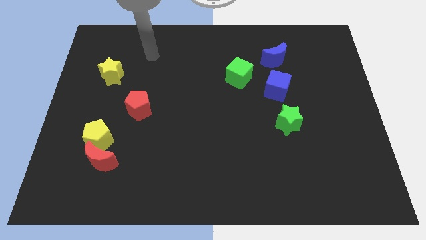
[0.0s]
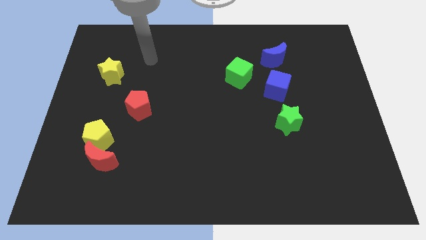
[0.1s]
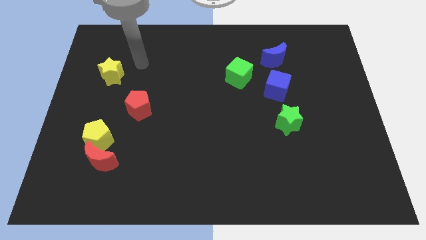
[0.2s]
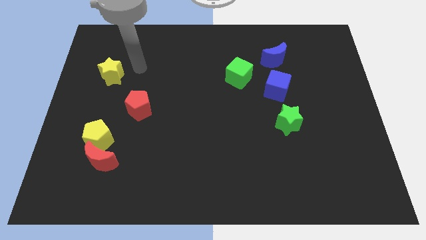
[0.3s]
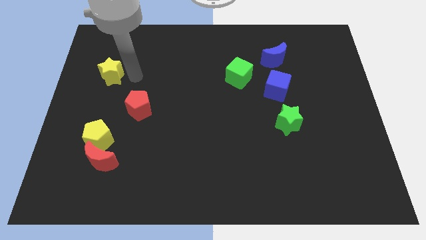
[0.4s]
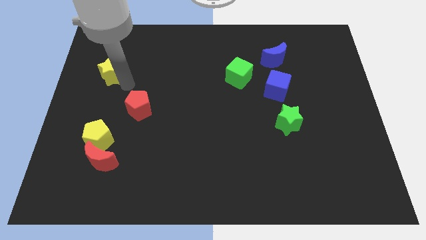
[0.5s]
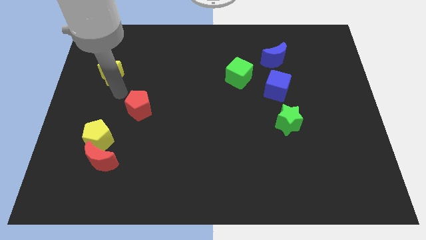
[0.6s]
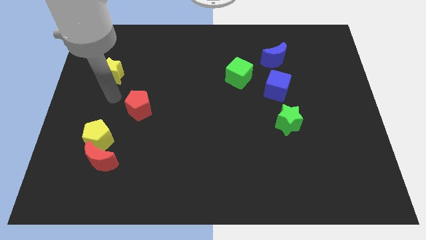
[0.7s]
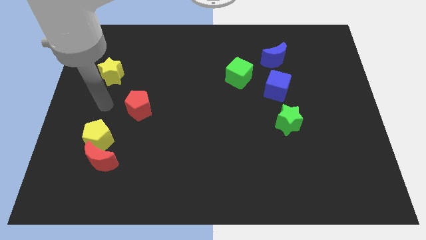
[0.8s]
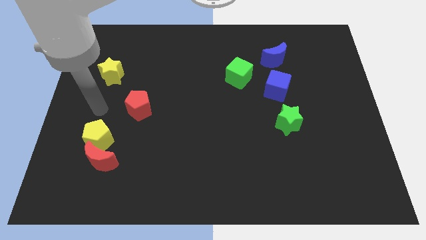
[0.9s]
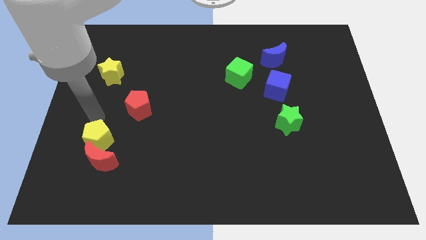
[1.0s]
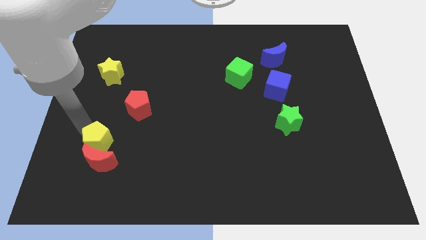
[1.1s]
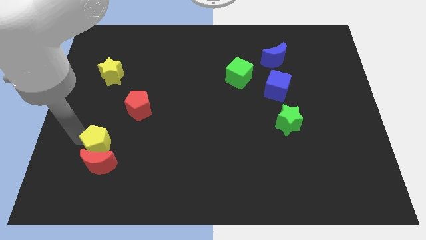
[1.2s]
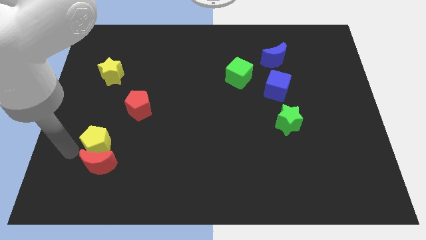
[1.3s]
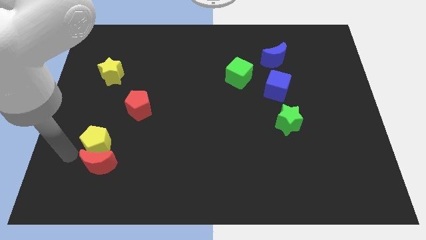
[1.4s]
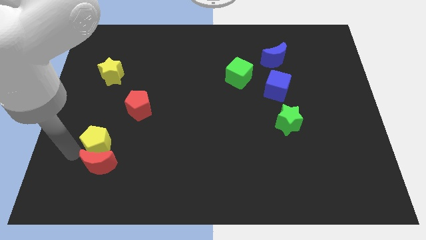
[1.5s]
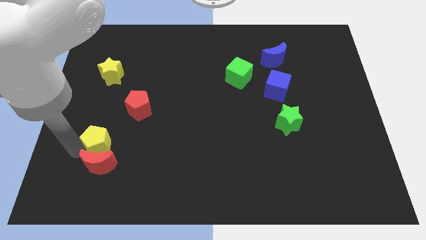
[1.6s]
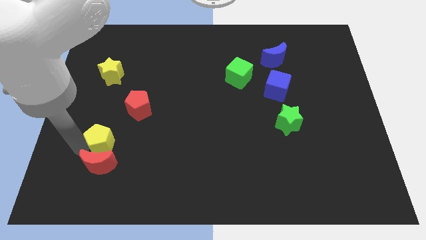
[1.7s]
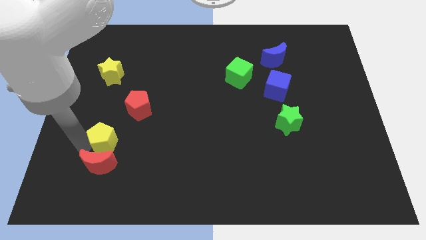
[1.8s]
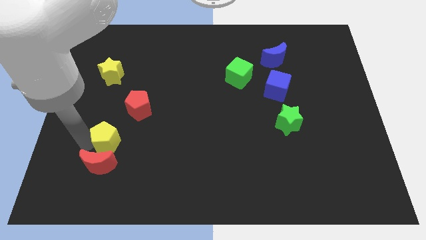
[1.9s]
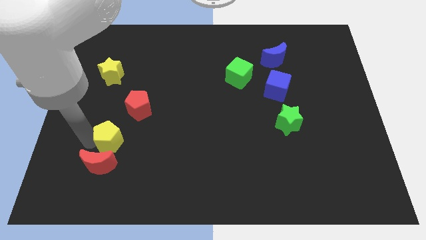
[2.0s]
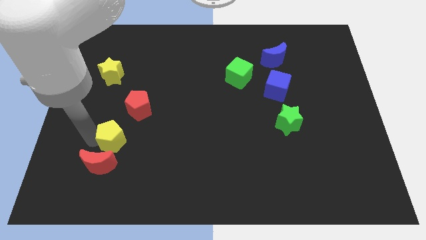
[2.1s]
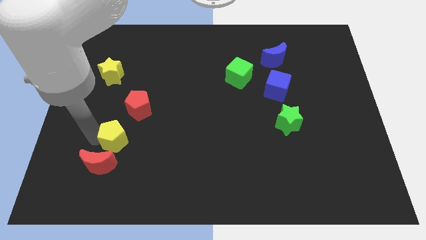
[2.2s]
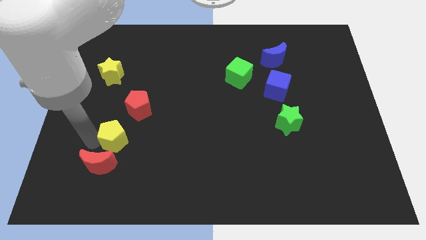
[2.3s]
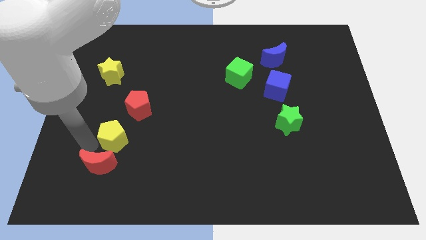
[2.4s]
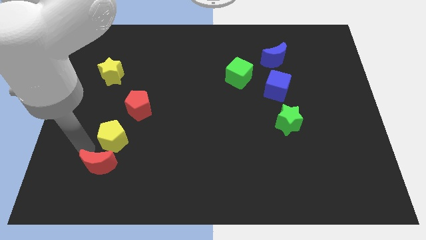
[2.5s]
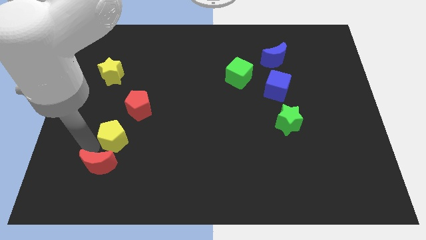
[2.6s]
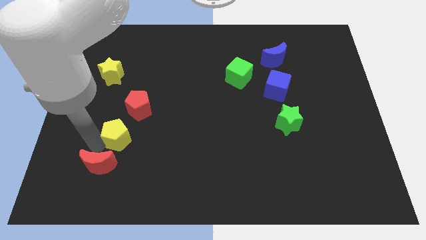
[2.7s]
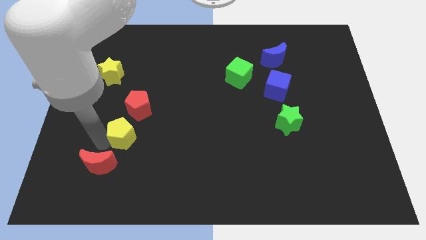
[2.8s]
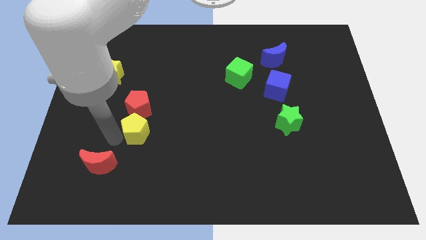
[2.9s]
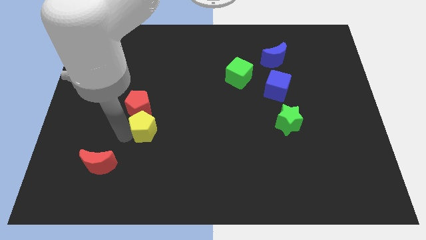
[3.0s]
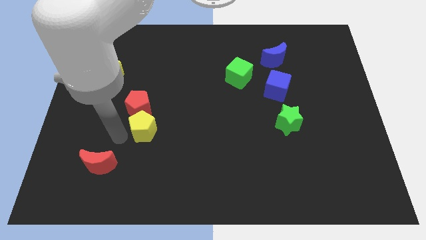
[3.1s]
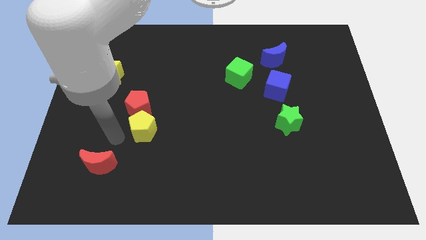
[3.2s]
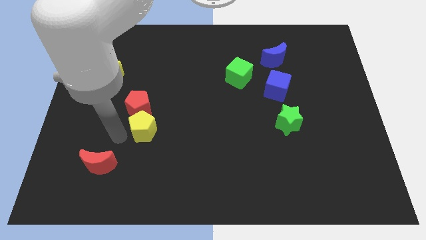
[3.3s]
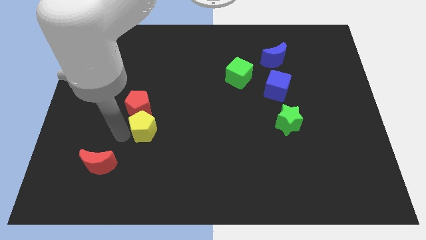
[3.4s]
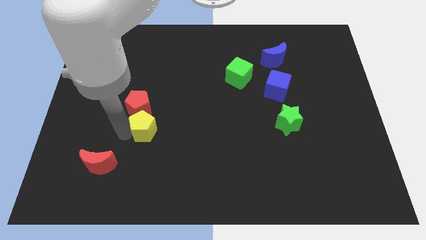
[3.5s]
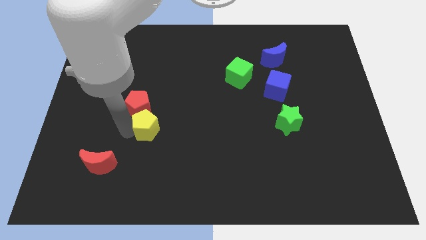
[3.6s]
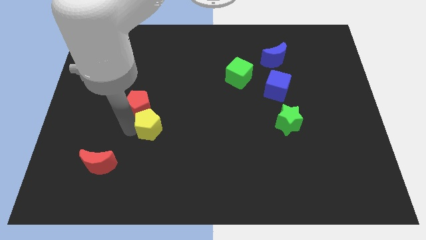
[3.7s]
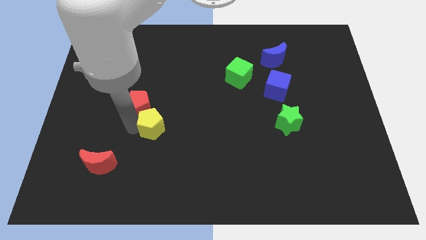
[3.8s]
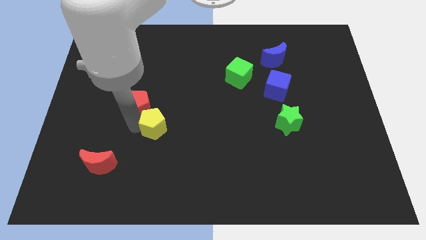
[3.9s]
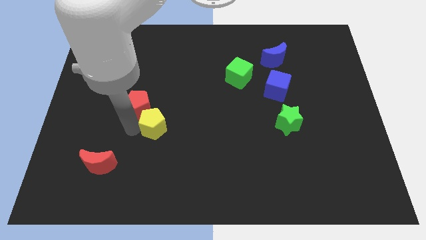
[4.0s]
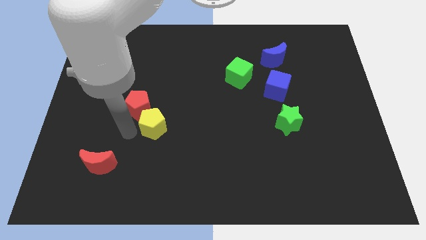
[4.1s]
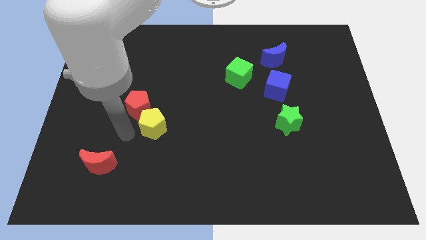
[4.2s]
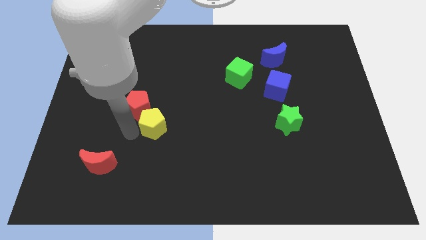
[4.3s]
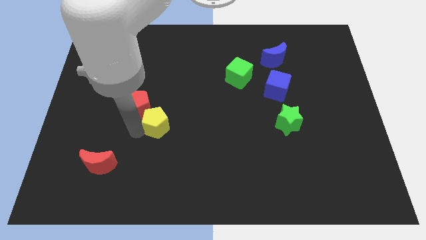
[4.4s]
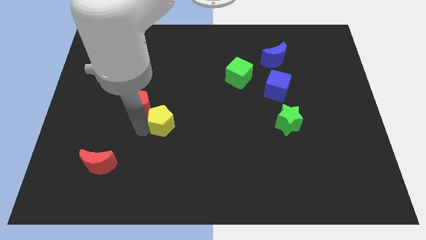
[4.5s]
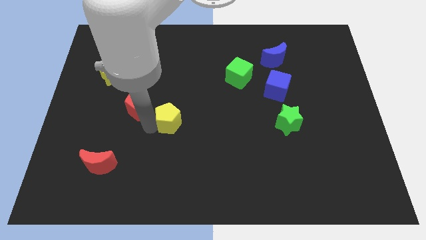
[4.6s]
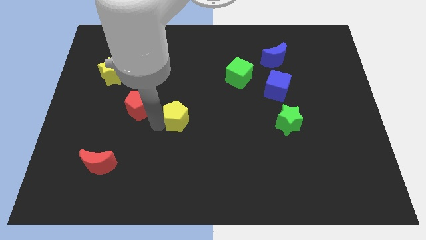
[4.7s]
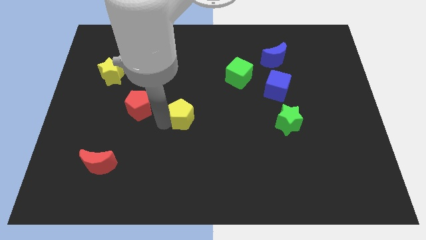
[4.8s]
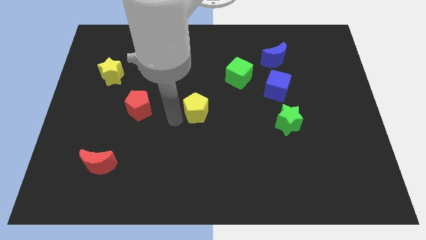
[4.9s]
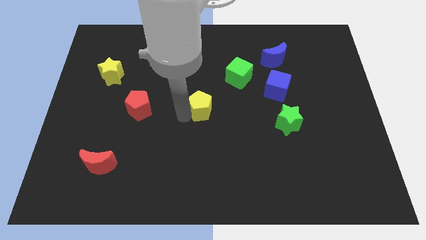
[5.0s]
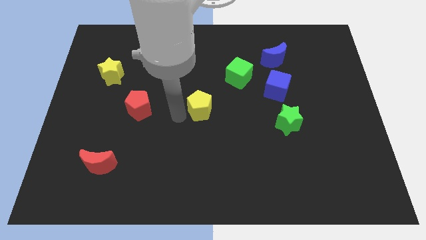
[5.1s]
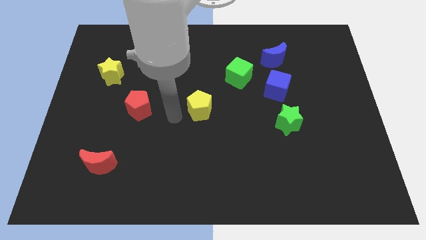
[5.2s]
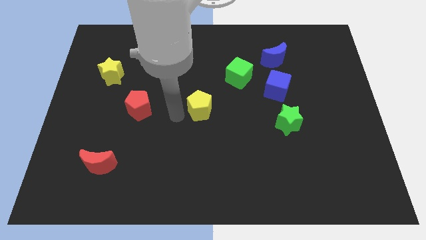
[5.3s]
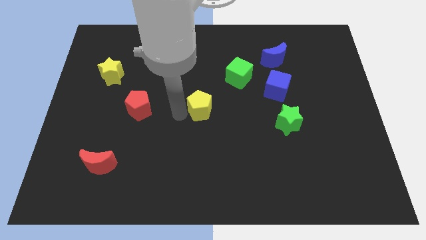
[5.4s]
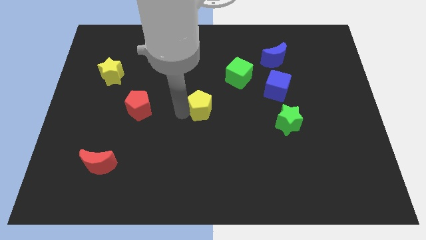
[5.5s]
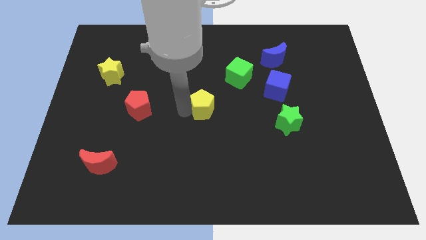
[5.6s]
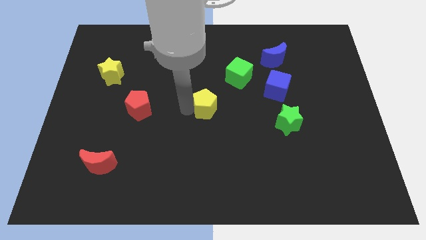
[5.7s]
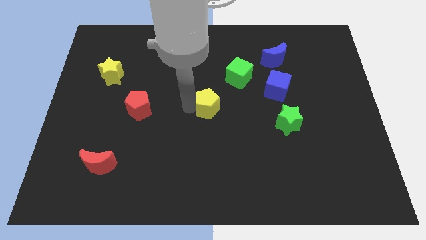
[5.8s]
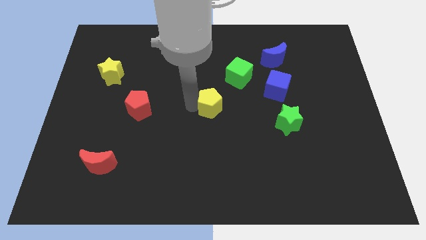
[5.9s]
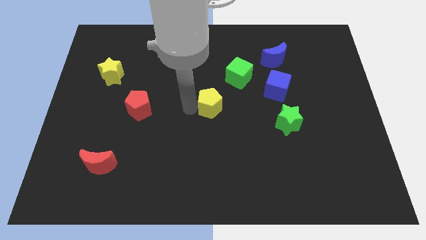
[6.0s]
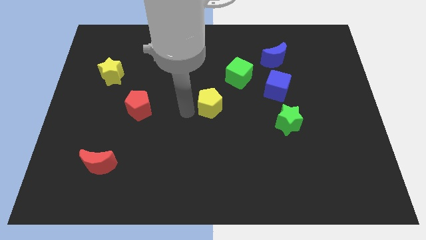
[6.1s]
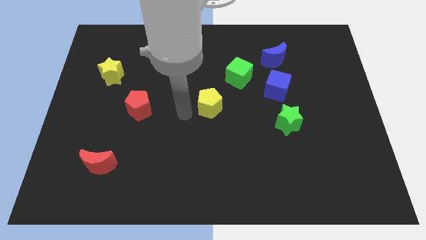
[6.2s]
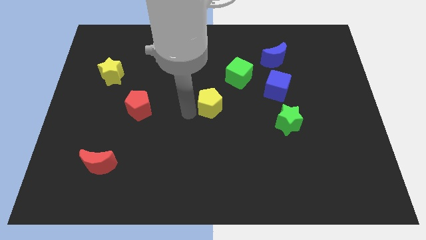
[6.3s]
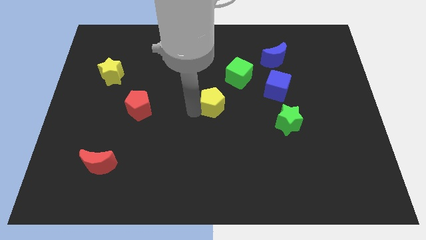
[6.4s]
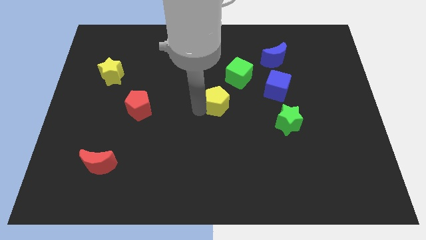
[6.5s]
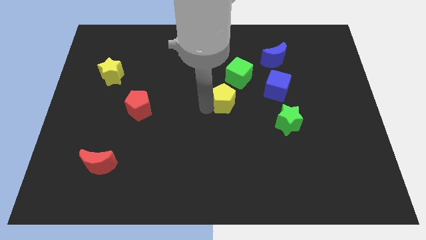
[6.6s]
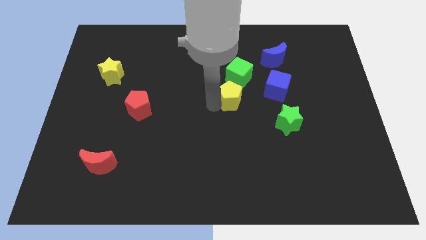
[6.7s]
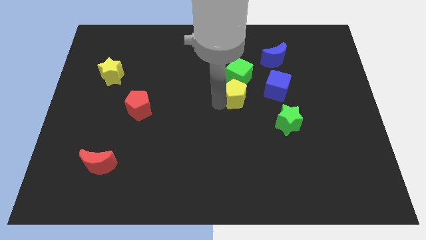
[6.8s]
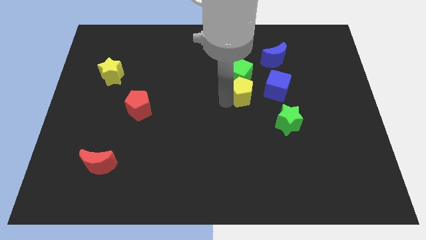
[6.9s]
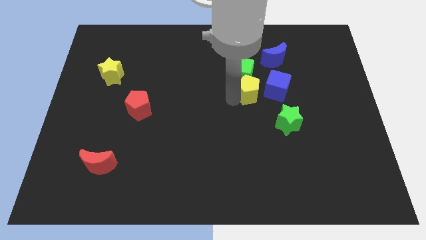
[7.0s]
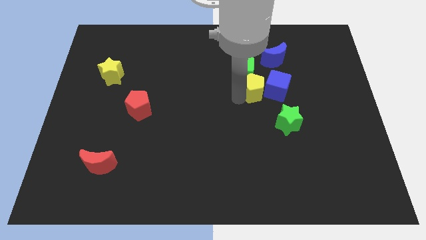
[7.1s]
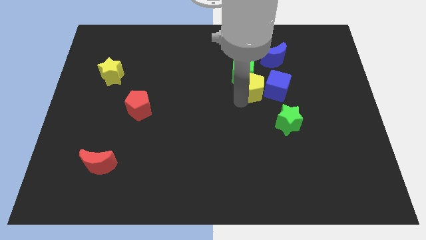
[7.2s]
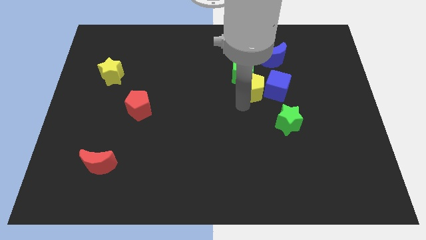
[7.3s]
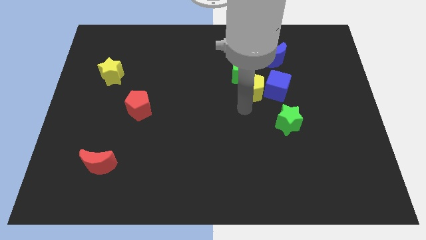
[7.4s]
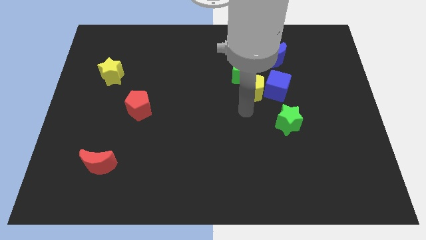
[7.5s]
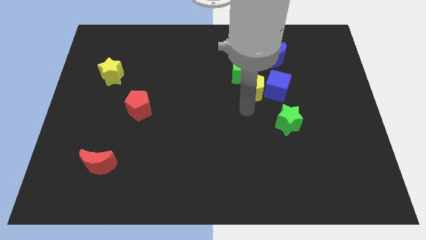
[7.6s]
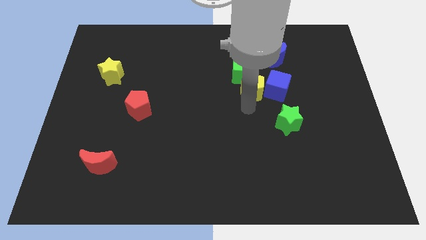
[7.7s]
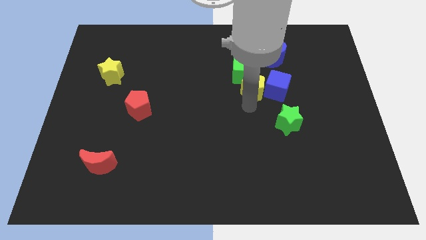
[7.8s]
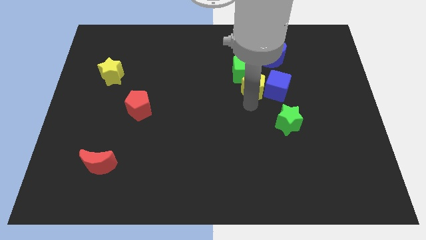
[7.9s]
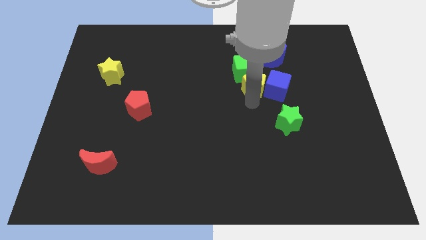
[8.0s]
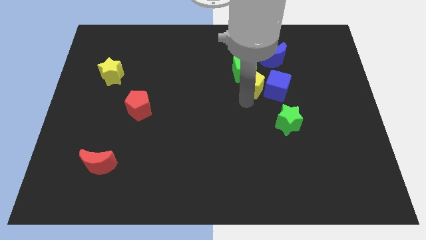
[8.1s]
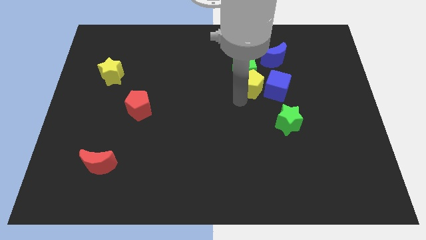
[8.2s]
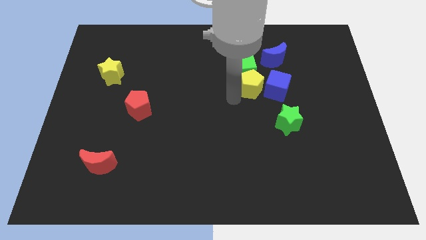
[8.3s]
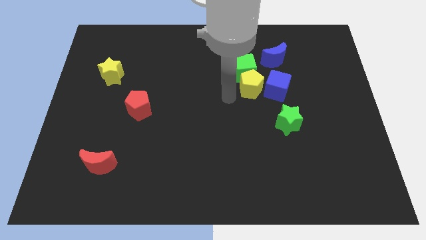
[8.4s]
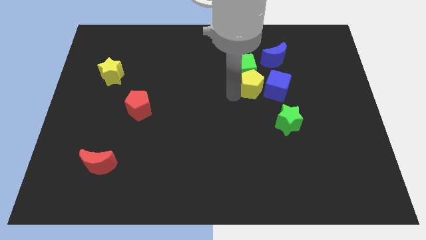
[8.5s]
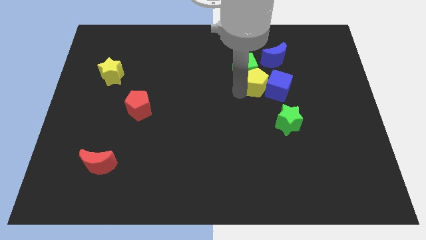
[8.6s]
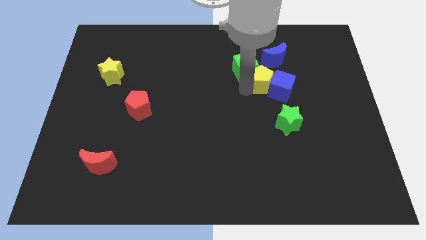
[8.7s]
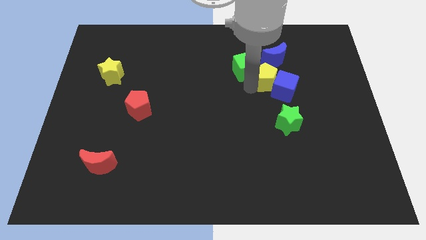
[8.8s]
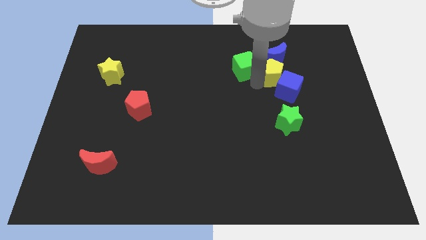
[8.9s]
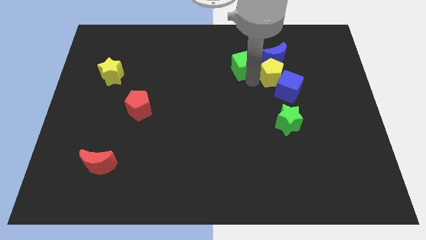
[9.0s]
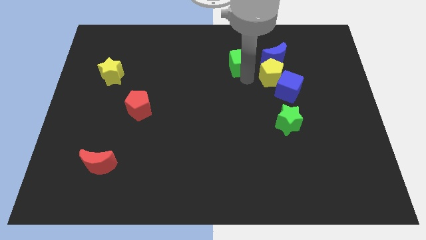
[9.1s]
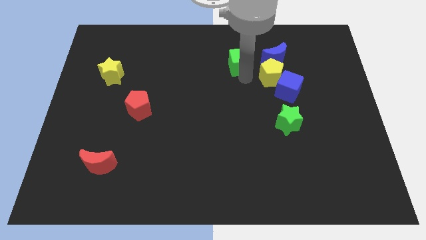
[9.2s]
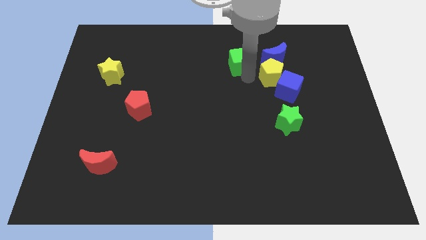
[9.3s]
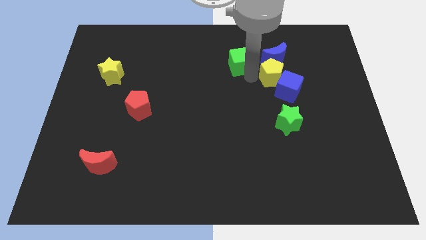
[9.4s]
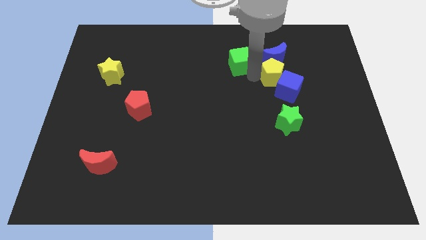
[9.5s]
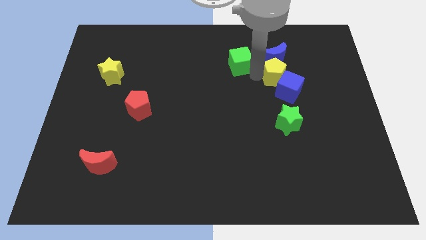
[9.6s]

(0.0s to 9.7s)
move the yellow pentagon to the bottom right of the blue moon
